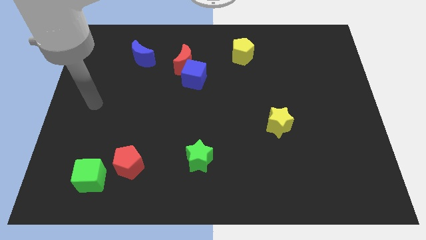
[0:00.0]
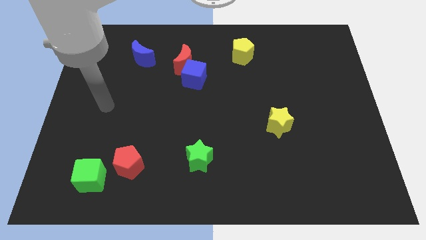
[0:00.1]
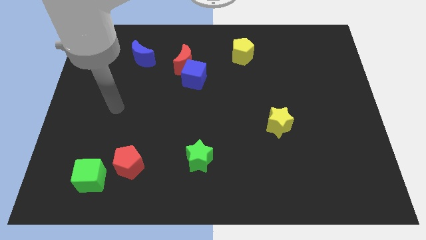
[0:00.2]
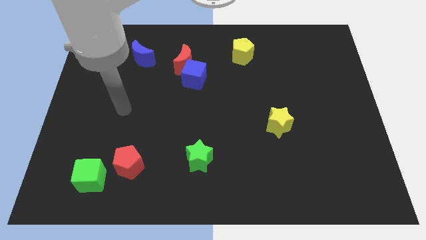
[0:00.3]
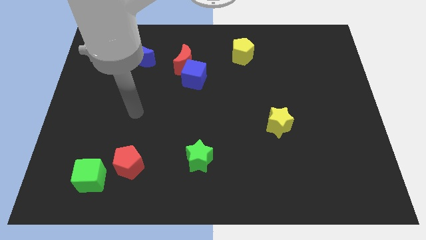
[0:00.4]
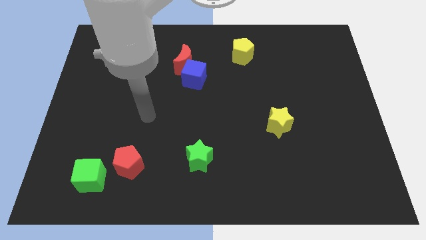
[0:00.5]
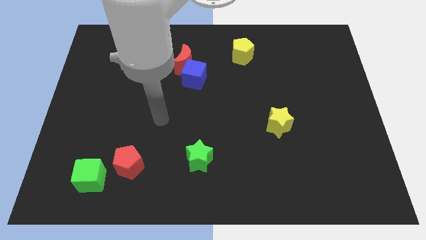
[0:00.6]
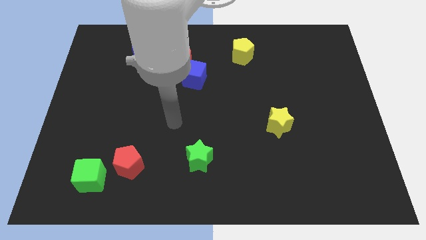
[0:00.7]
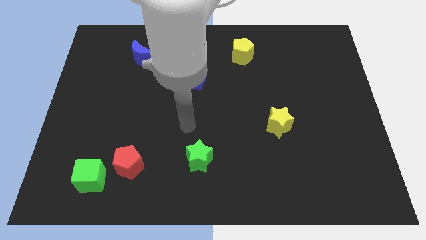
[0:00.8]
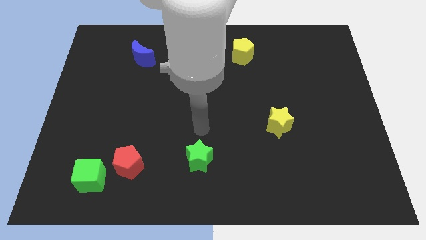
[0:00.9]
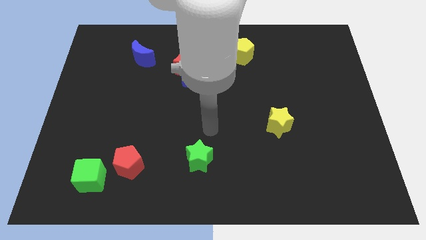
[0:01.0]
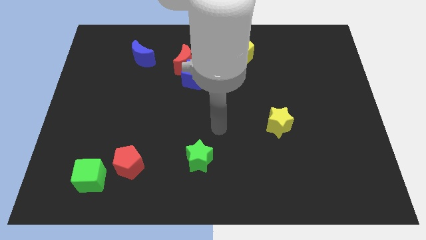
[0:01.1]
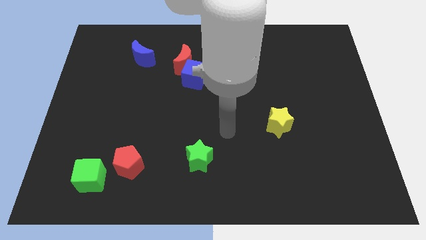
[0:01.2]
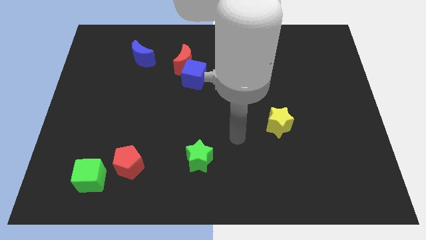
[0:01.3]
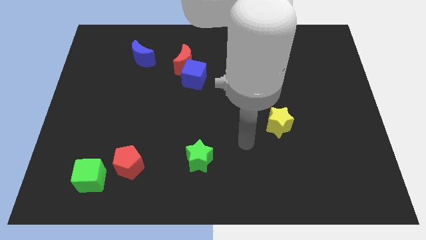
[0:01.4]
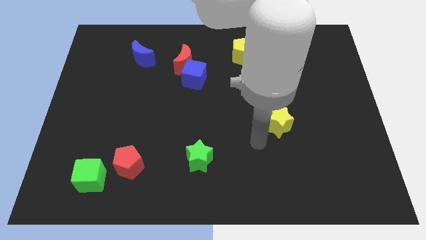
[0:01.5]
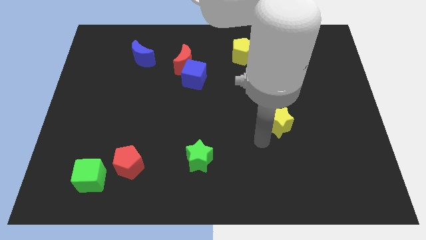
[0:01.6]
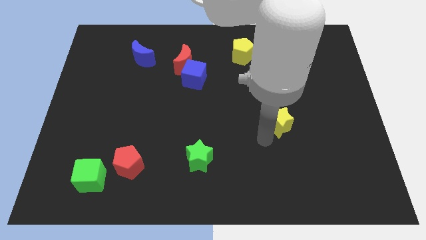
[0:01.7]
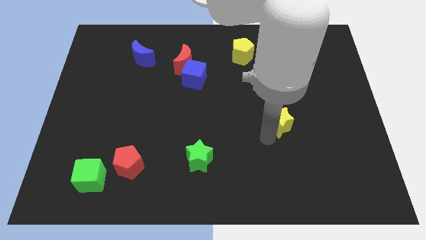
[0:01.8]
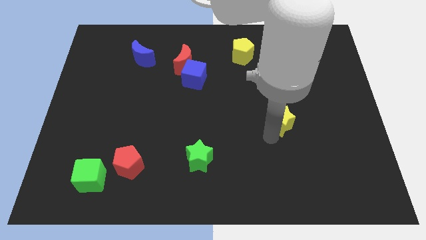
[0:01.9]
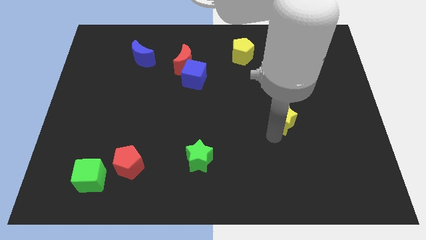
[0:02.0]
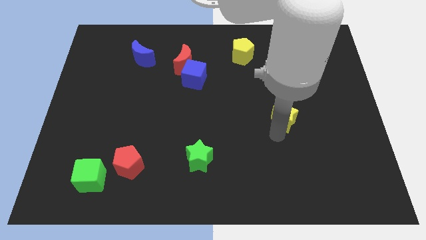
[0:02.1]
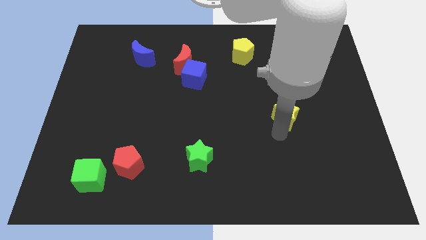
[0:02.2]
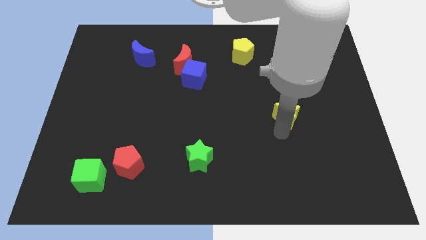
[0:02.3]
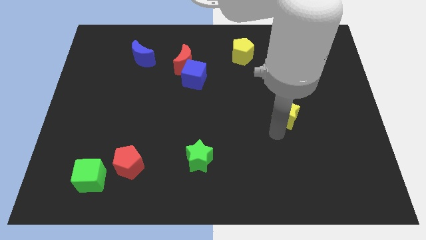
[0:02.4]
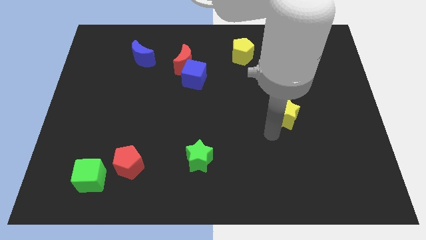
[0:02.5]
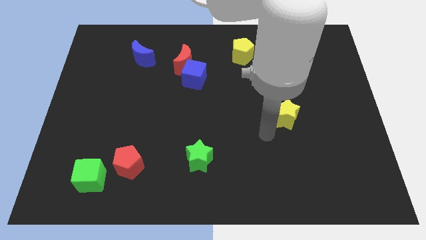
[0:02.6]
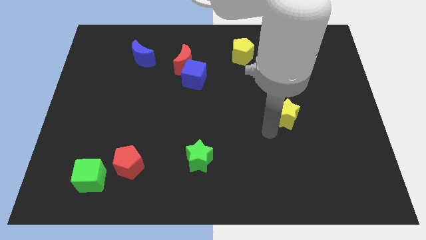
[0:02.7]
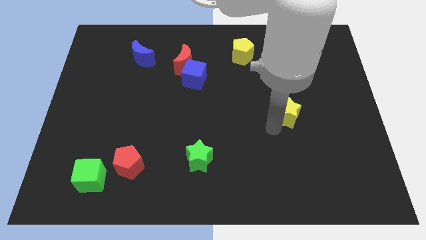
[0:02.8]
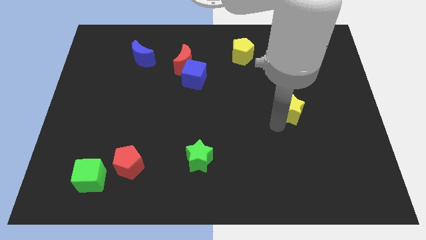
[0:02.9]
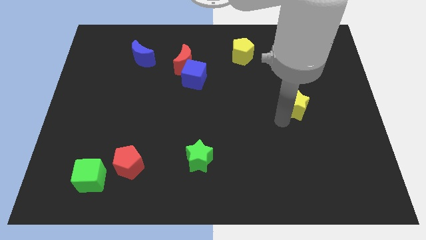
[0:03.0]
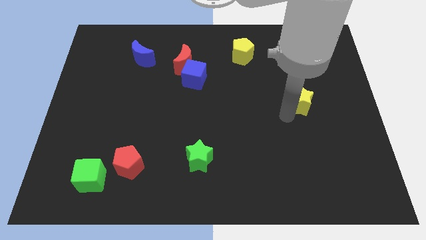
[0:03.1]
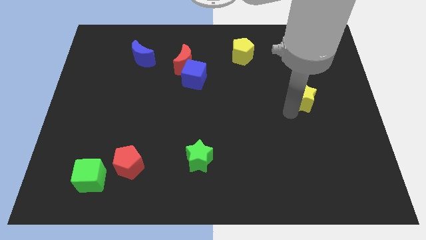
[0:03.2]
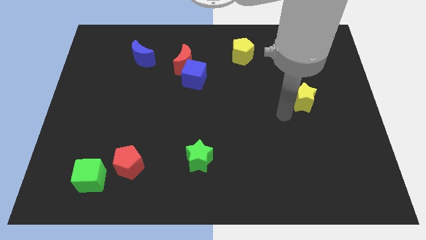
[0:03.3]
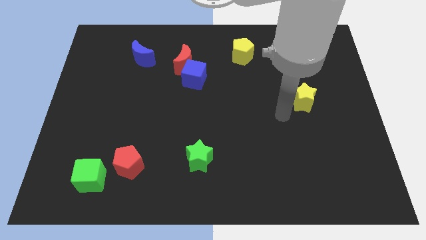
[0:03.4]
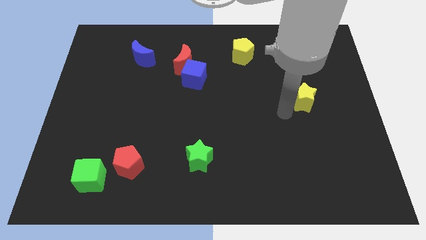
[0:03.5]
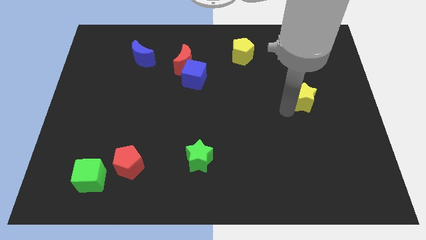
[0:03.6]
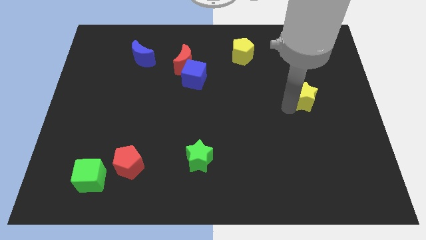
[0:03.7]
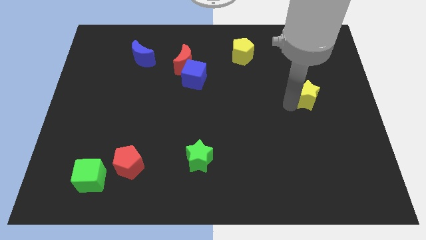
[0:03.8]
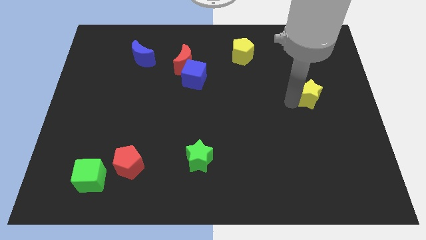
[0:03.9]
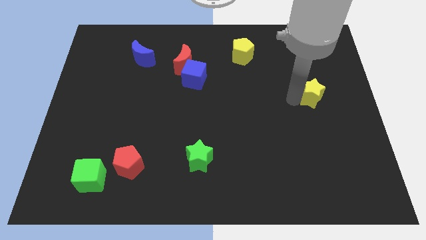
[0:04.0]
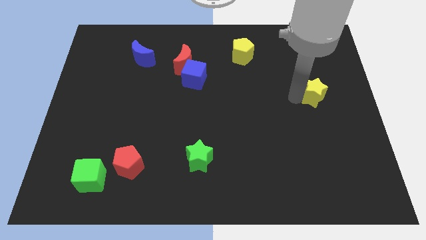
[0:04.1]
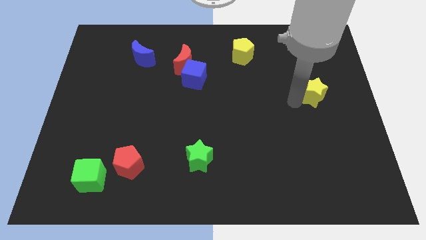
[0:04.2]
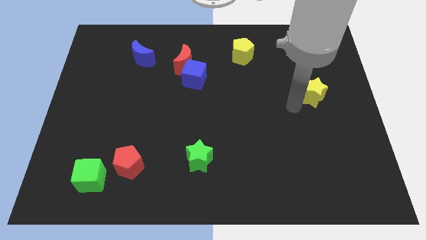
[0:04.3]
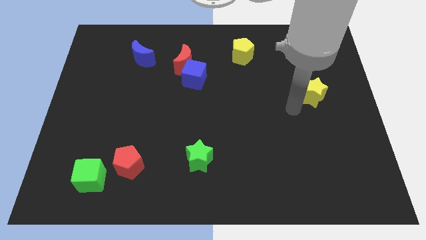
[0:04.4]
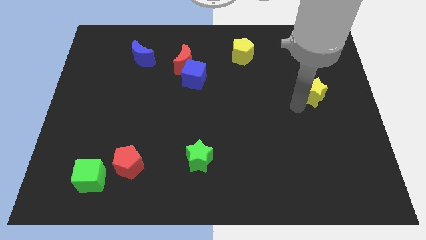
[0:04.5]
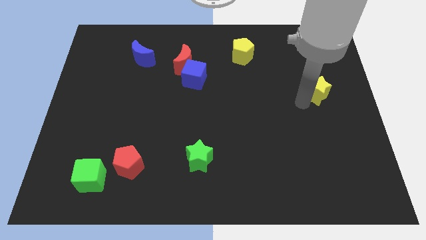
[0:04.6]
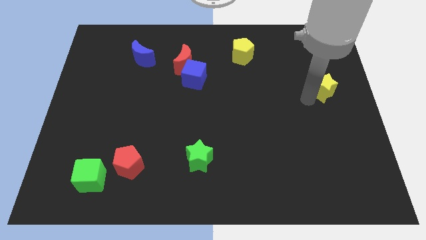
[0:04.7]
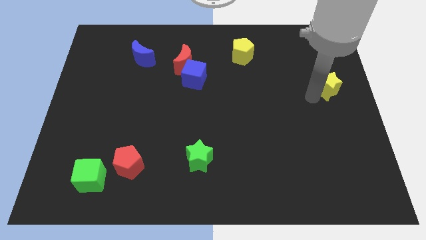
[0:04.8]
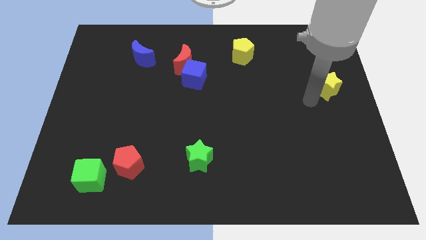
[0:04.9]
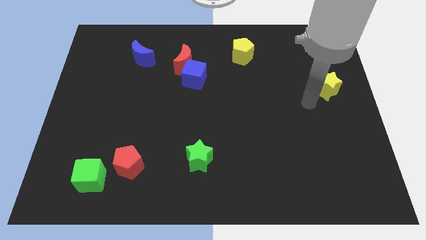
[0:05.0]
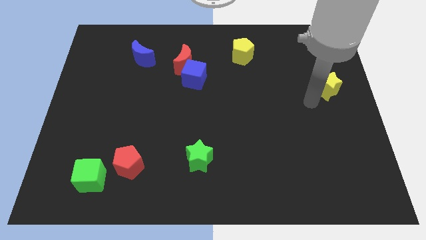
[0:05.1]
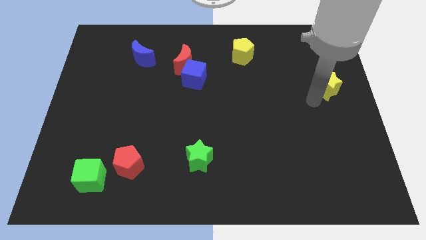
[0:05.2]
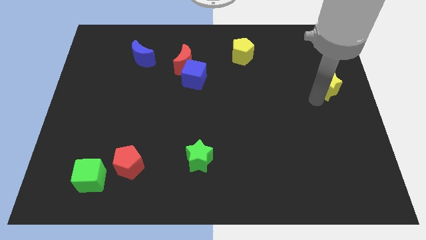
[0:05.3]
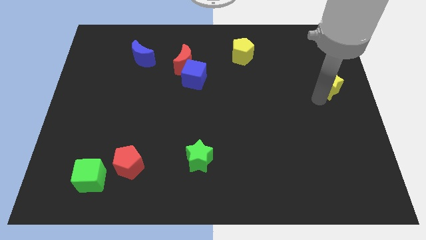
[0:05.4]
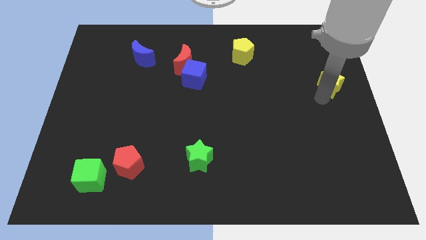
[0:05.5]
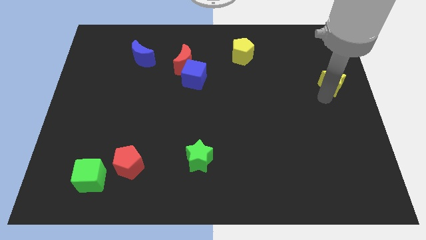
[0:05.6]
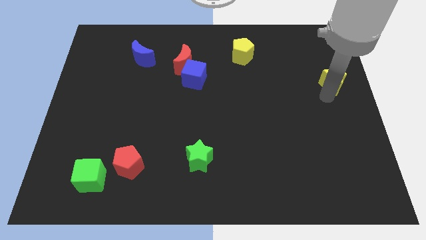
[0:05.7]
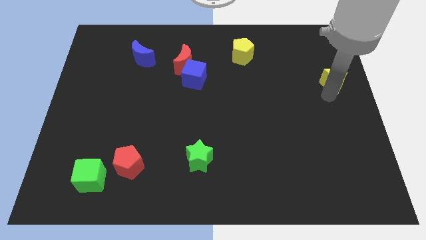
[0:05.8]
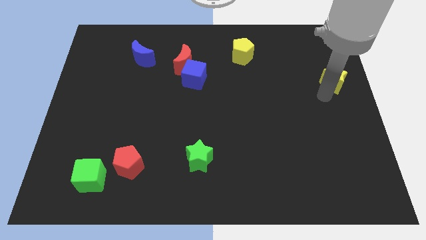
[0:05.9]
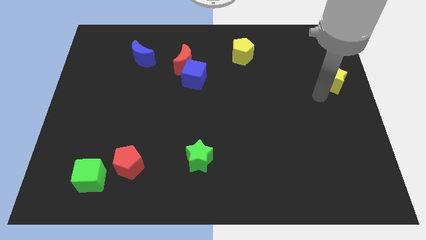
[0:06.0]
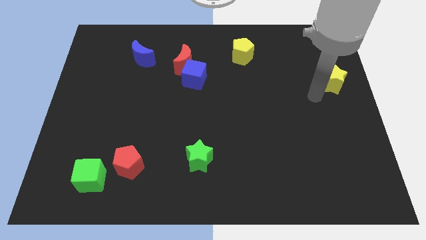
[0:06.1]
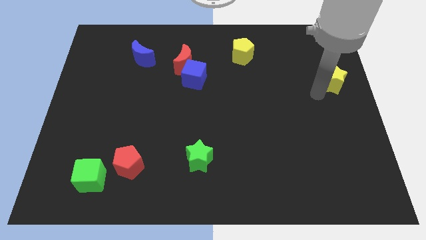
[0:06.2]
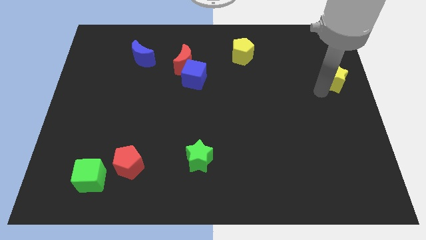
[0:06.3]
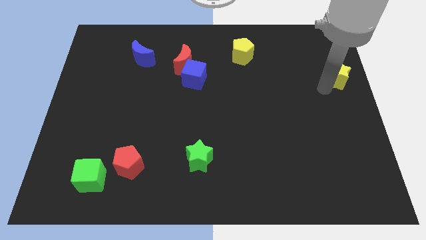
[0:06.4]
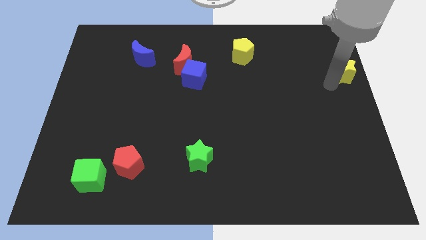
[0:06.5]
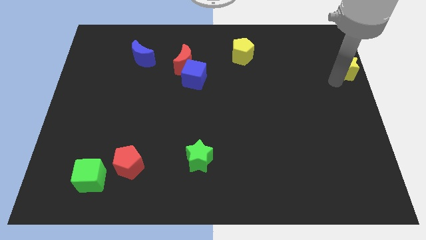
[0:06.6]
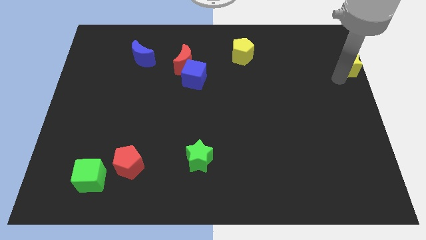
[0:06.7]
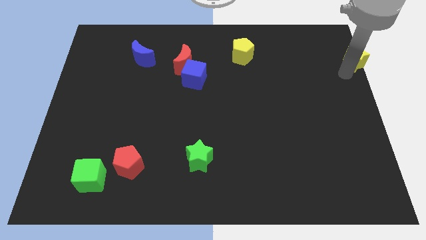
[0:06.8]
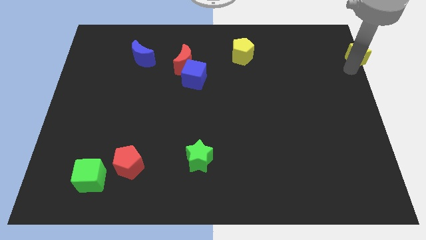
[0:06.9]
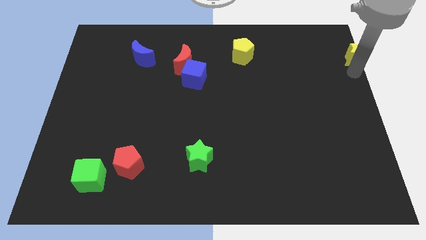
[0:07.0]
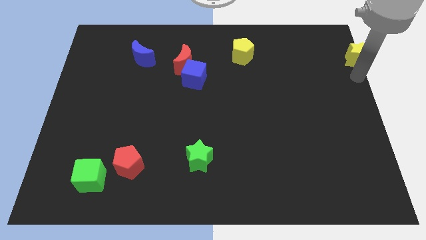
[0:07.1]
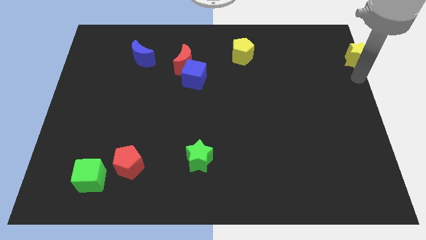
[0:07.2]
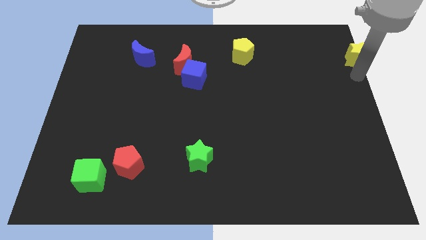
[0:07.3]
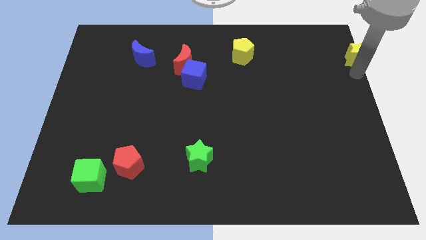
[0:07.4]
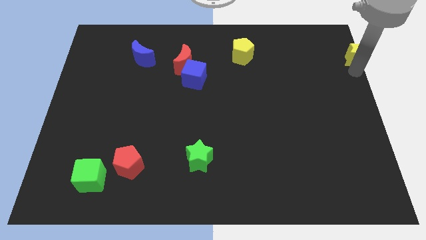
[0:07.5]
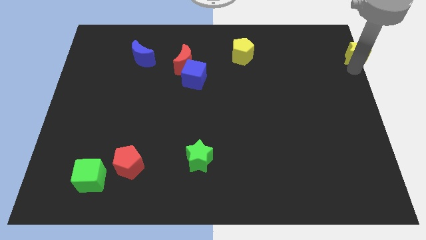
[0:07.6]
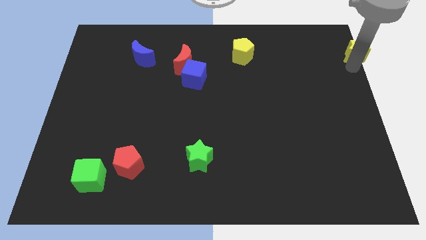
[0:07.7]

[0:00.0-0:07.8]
push the yellow star to the top right corner
